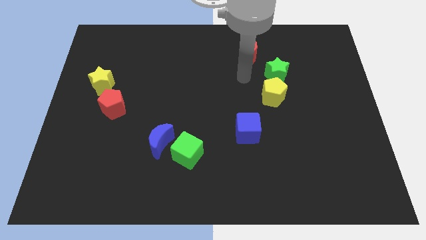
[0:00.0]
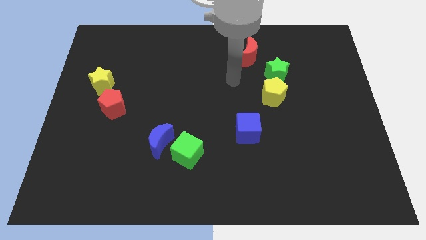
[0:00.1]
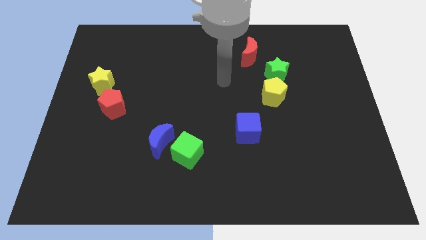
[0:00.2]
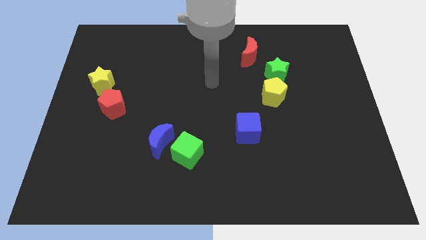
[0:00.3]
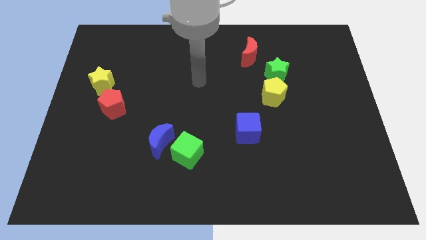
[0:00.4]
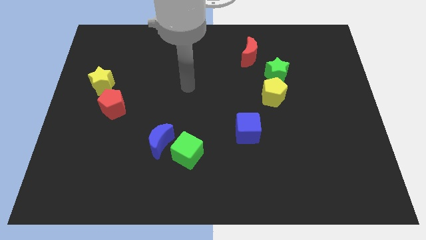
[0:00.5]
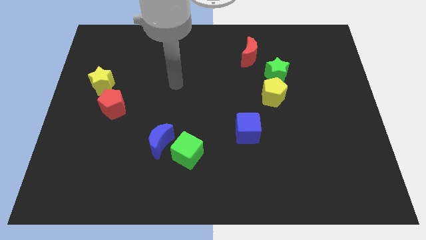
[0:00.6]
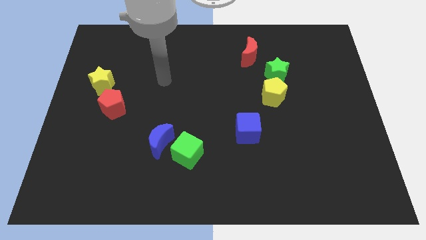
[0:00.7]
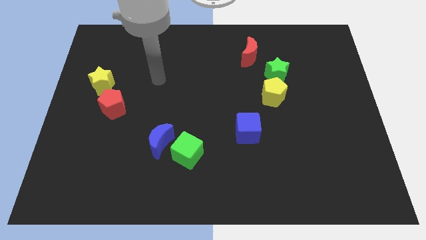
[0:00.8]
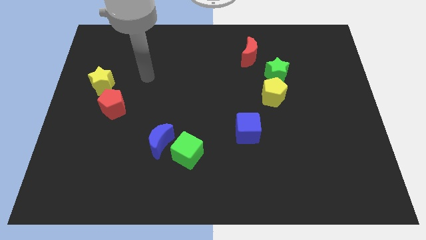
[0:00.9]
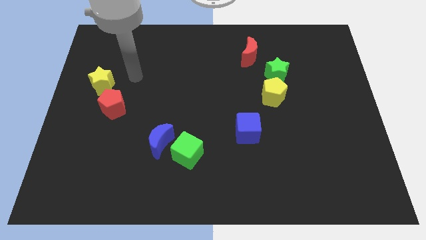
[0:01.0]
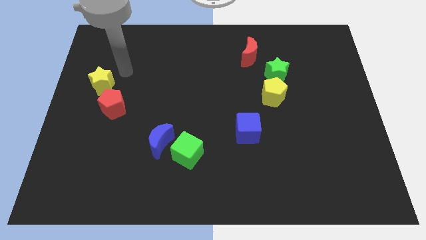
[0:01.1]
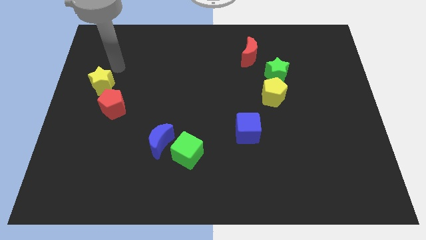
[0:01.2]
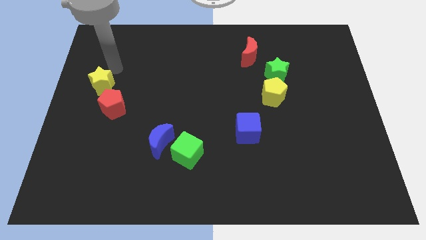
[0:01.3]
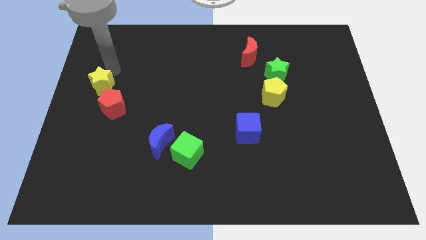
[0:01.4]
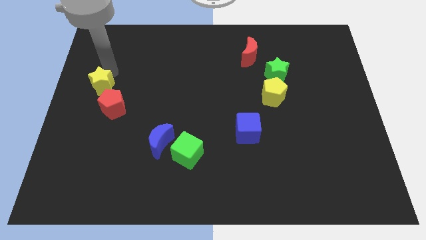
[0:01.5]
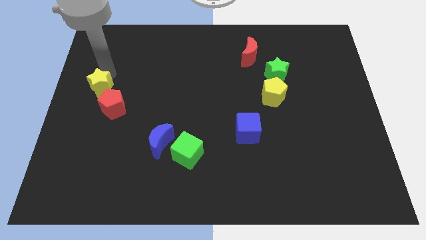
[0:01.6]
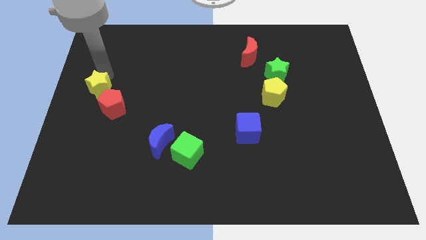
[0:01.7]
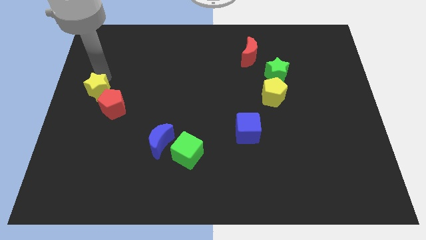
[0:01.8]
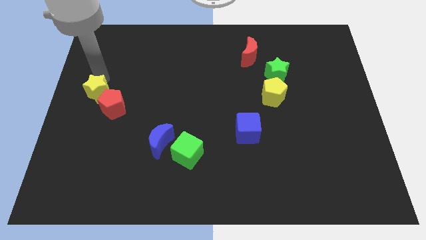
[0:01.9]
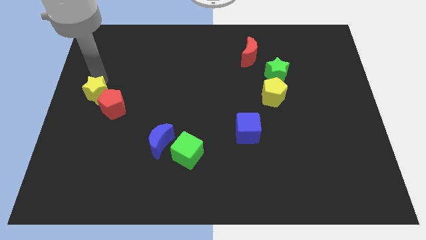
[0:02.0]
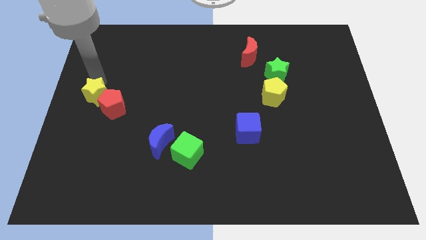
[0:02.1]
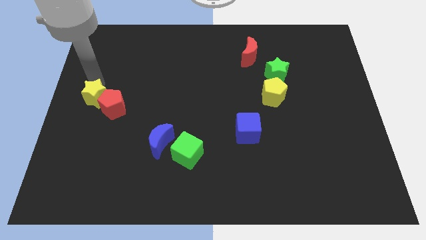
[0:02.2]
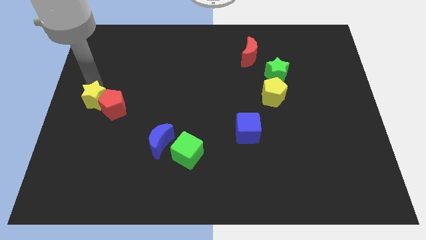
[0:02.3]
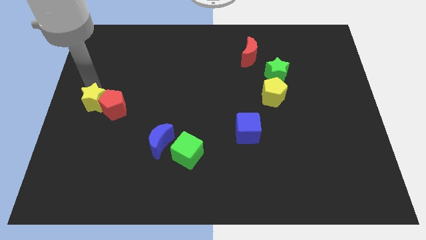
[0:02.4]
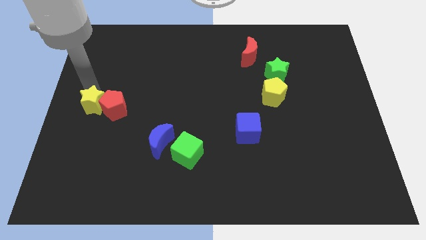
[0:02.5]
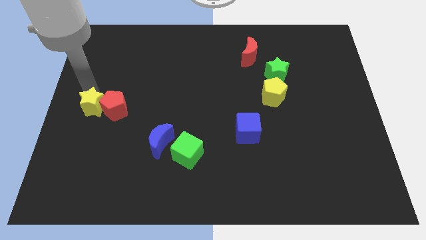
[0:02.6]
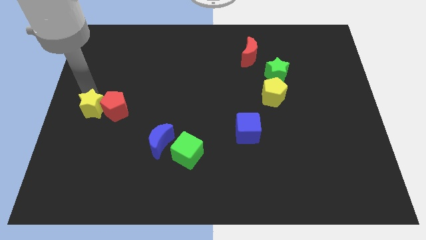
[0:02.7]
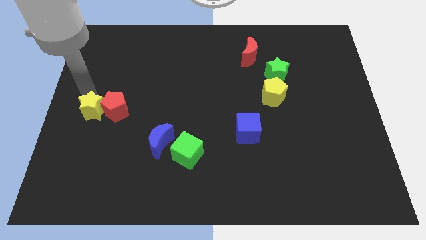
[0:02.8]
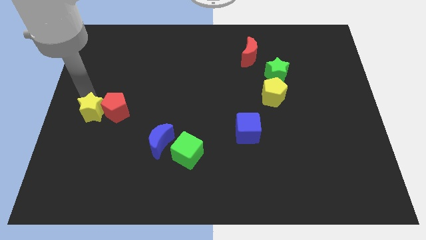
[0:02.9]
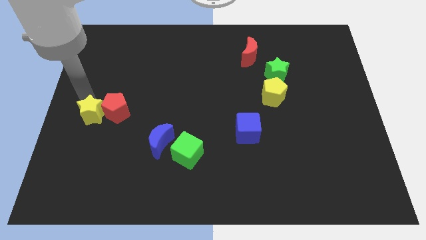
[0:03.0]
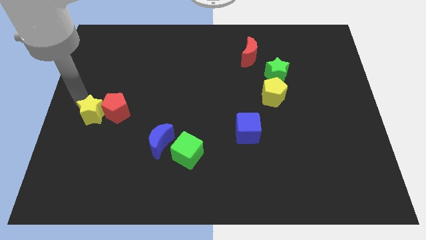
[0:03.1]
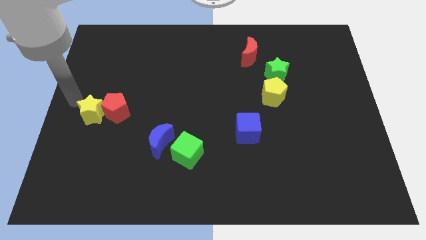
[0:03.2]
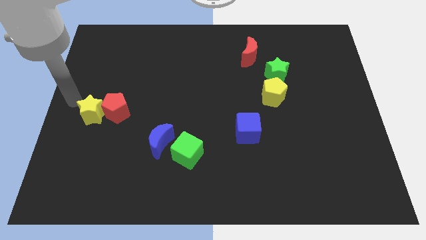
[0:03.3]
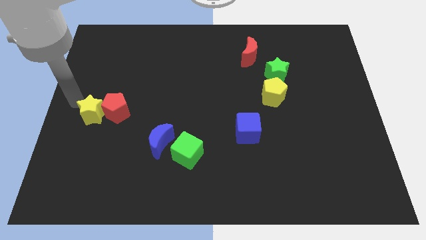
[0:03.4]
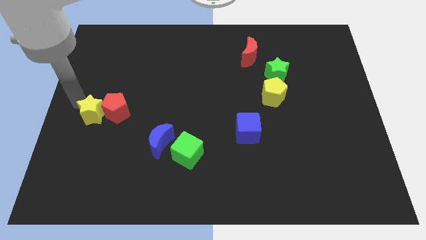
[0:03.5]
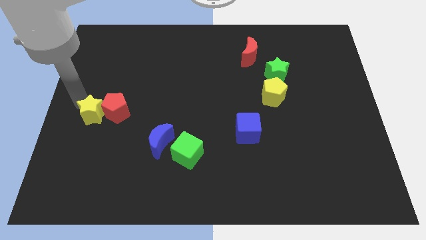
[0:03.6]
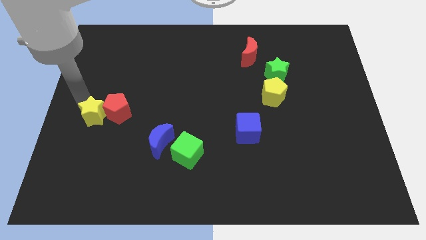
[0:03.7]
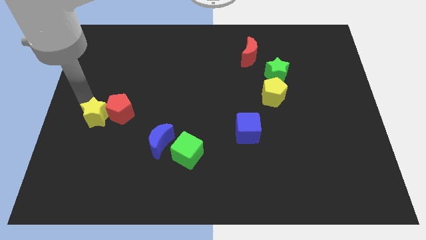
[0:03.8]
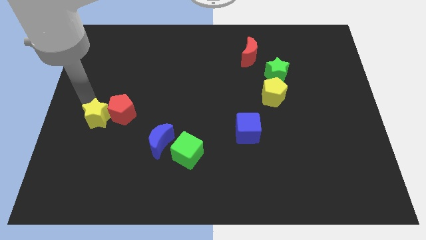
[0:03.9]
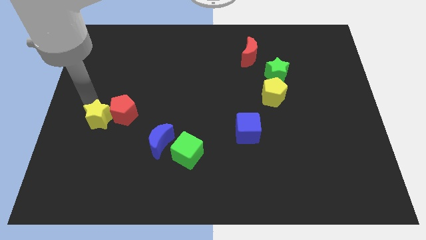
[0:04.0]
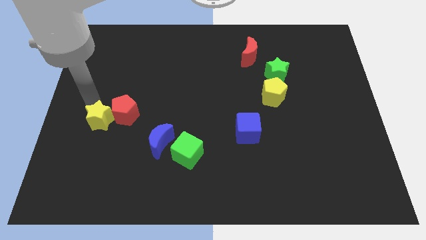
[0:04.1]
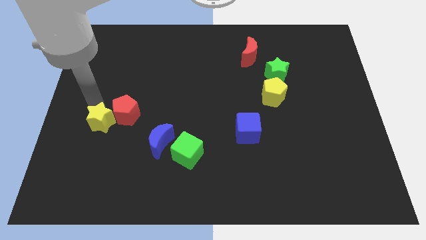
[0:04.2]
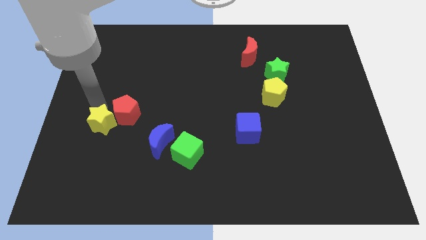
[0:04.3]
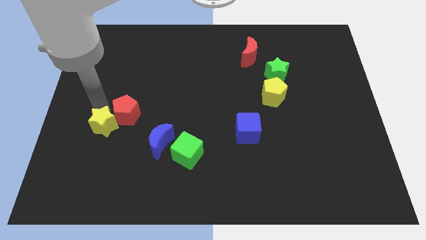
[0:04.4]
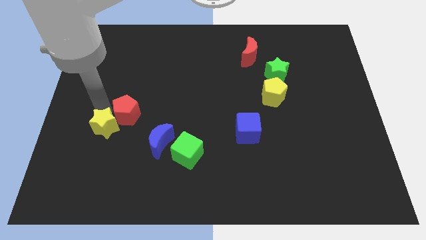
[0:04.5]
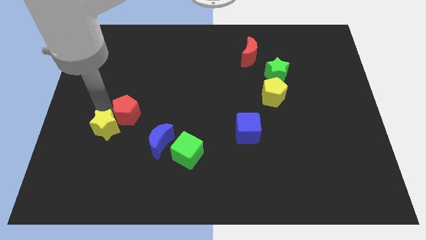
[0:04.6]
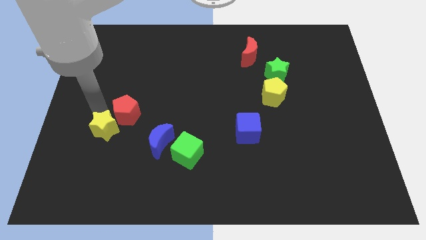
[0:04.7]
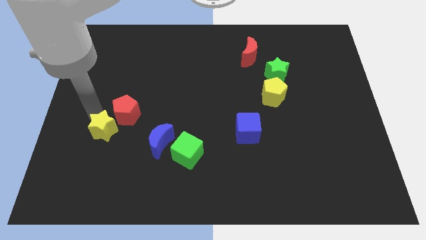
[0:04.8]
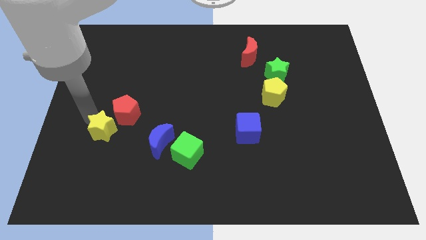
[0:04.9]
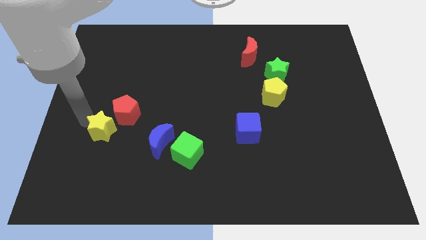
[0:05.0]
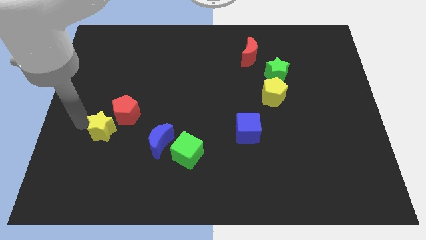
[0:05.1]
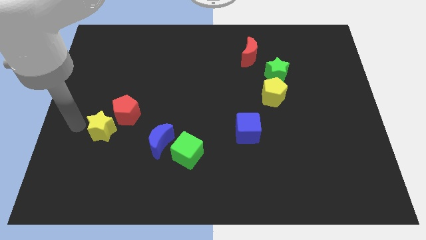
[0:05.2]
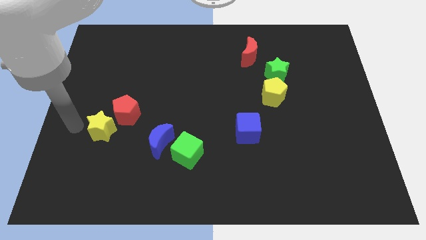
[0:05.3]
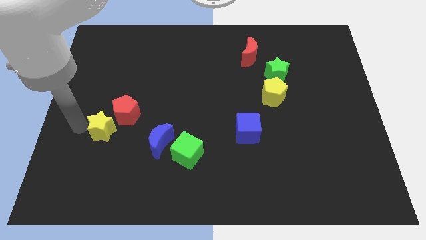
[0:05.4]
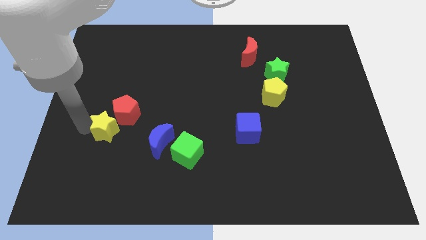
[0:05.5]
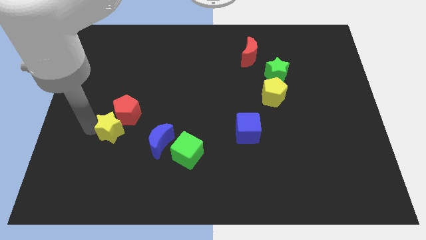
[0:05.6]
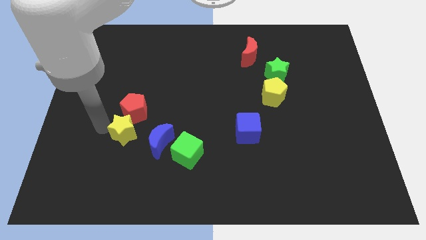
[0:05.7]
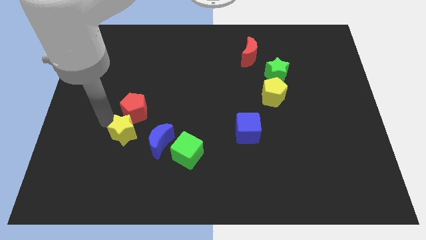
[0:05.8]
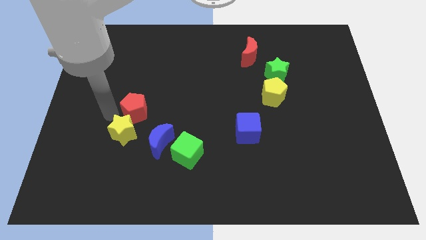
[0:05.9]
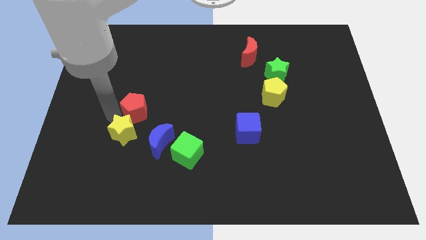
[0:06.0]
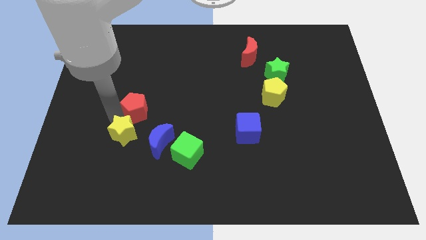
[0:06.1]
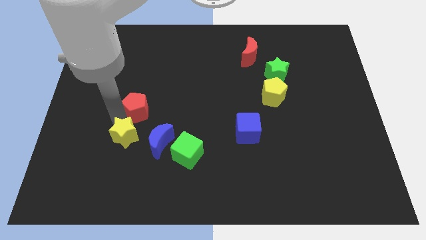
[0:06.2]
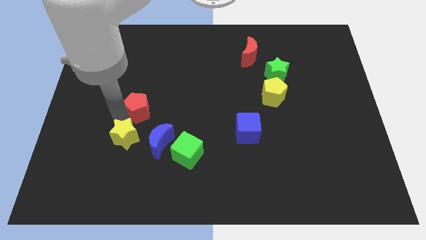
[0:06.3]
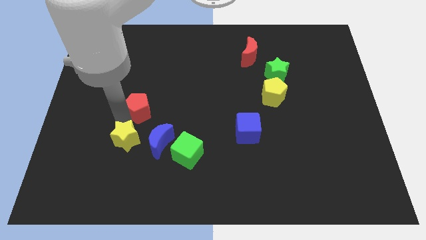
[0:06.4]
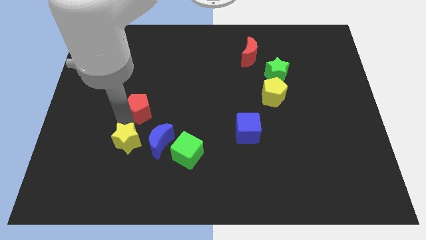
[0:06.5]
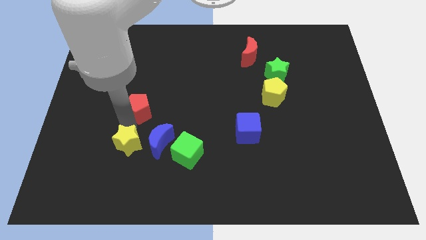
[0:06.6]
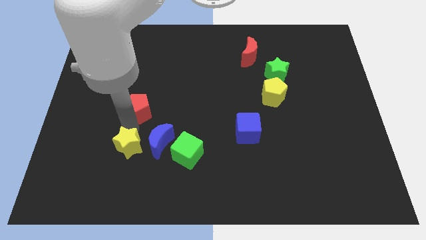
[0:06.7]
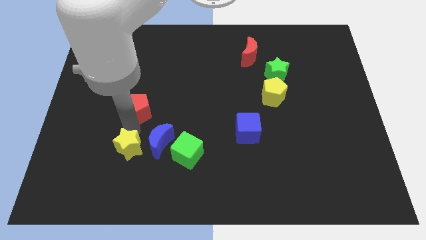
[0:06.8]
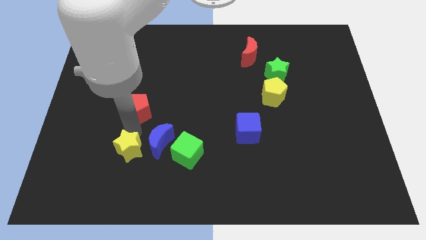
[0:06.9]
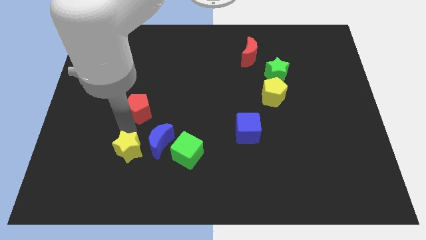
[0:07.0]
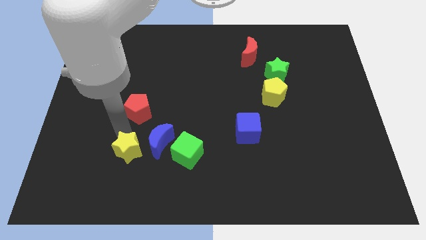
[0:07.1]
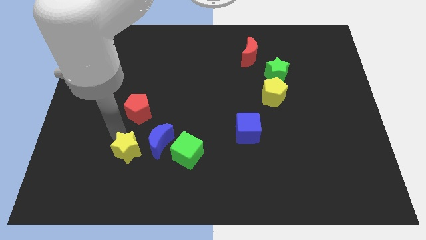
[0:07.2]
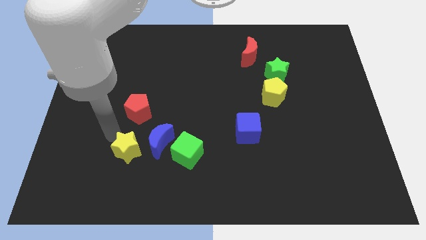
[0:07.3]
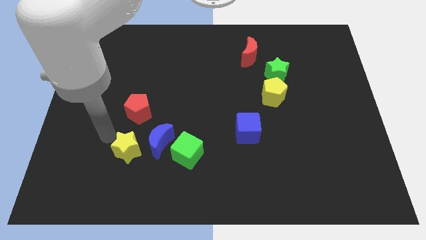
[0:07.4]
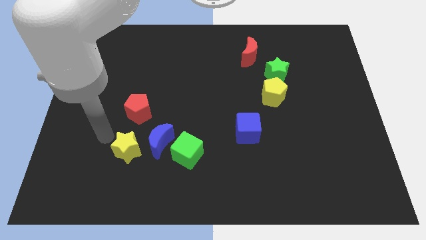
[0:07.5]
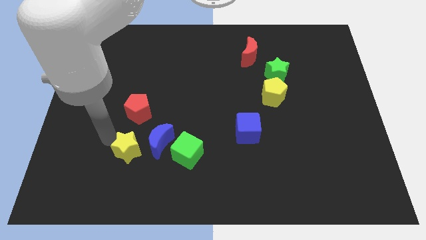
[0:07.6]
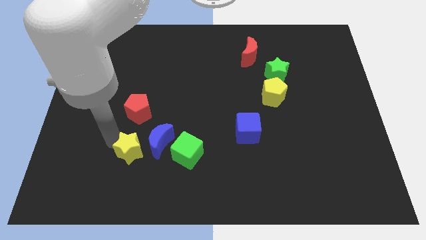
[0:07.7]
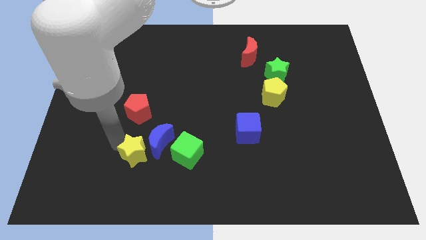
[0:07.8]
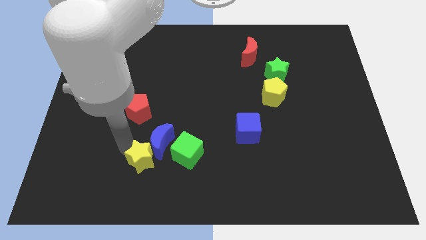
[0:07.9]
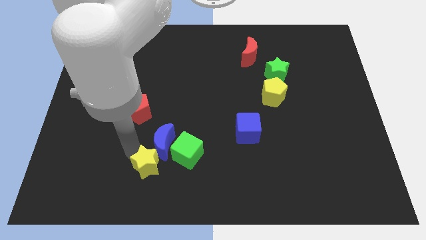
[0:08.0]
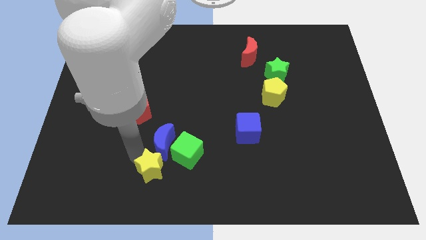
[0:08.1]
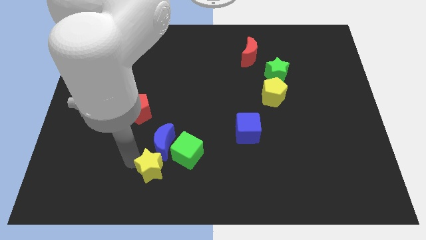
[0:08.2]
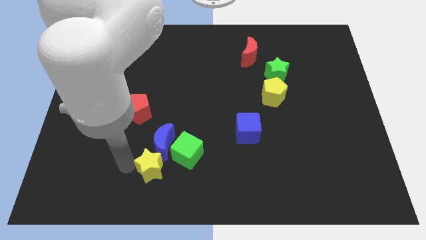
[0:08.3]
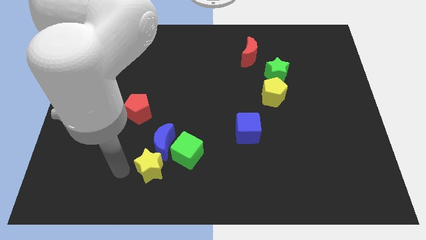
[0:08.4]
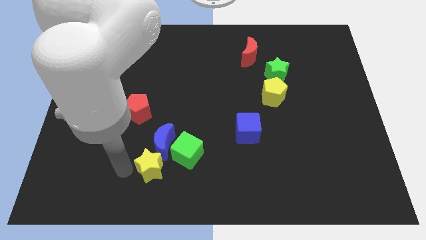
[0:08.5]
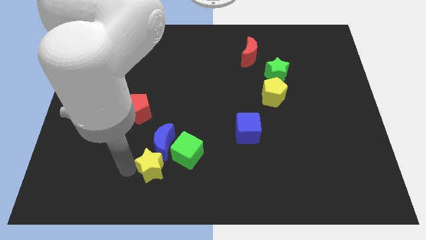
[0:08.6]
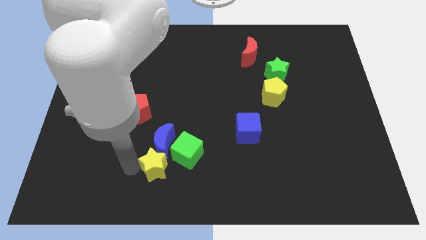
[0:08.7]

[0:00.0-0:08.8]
move the yellow star diagonally down and to the right of the blue moon
